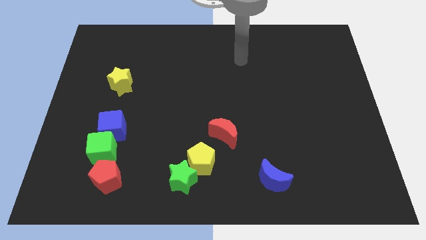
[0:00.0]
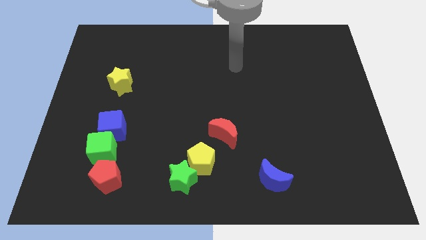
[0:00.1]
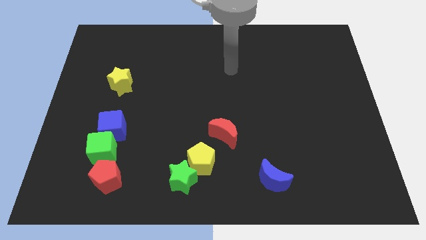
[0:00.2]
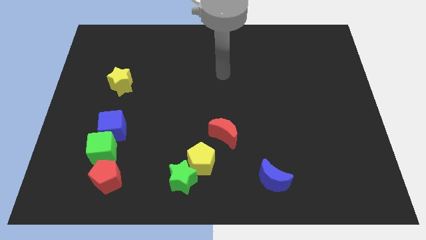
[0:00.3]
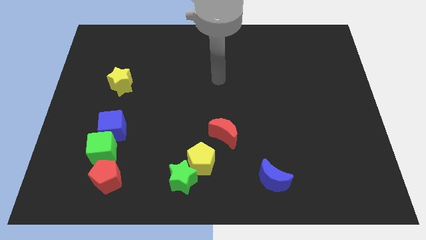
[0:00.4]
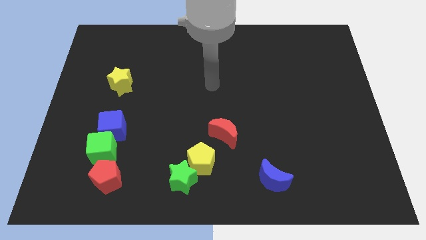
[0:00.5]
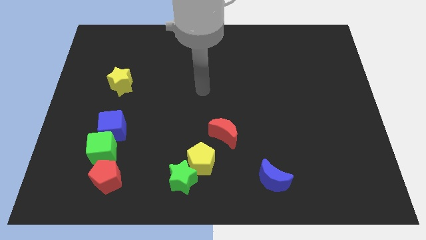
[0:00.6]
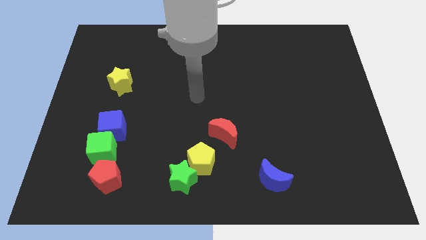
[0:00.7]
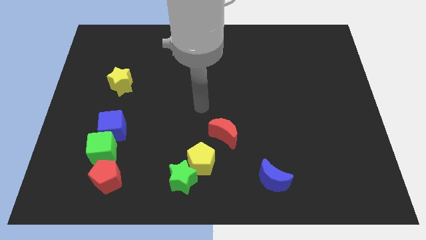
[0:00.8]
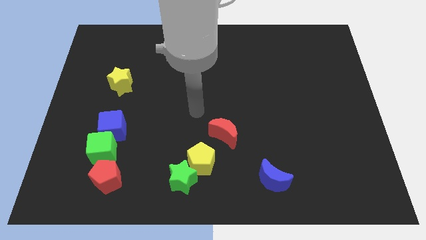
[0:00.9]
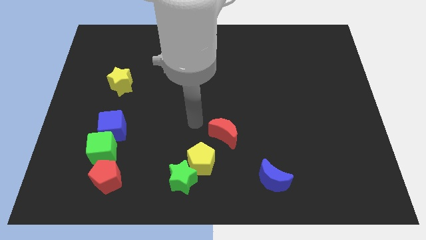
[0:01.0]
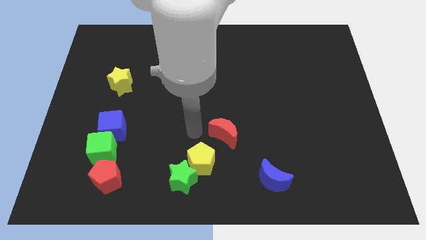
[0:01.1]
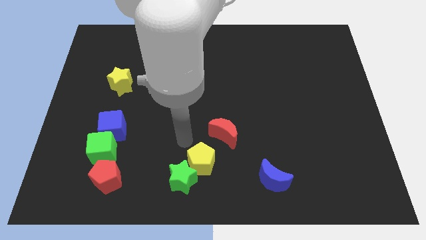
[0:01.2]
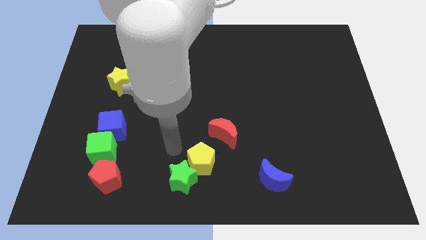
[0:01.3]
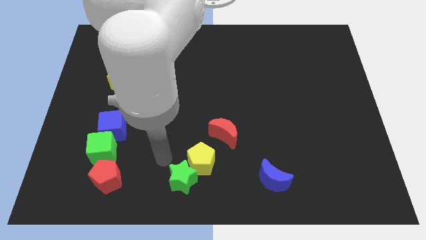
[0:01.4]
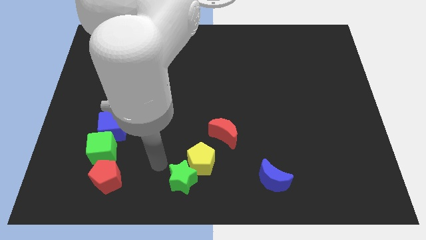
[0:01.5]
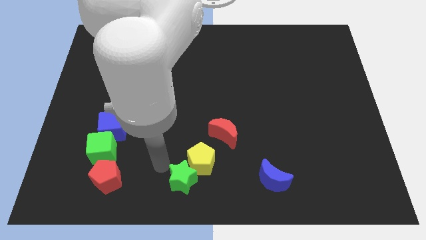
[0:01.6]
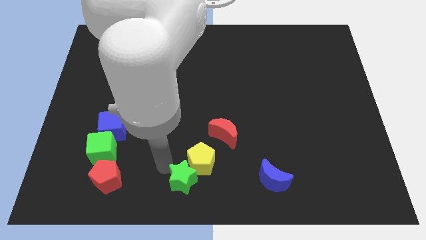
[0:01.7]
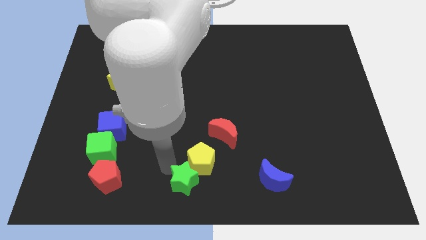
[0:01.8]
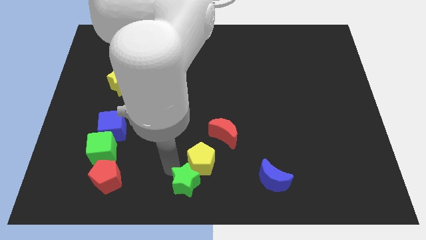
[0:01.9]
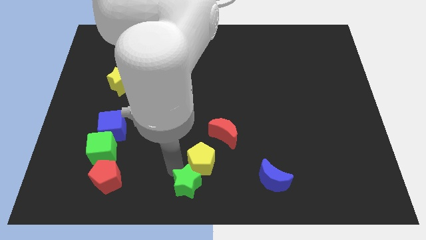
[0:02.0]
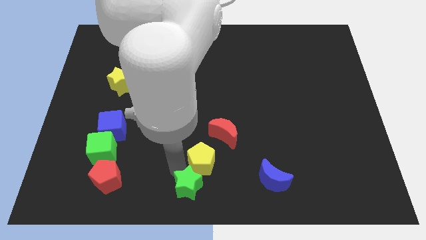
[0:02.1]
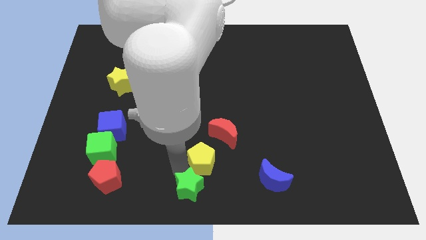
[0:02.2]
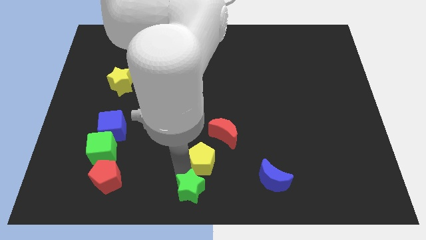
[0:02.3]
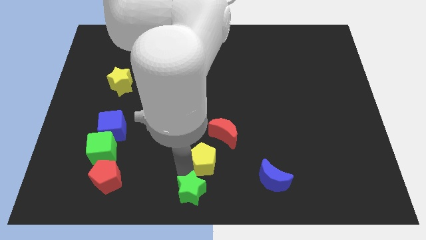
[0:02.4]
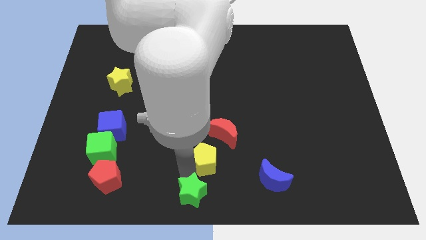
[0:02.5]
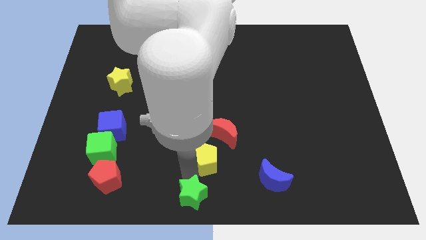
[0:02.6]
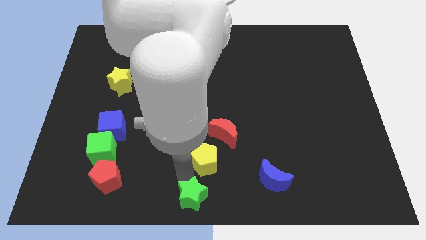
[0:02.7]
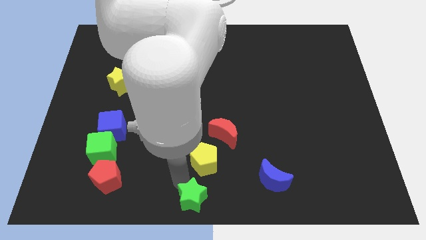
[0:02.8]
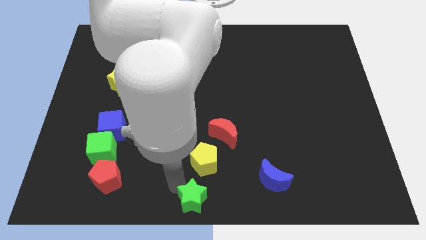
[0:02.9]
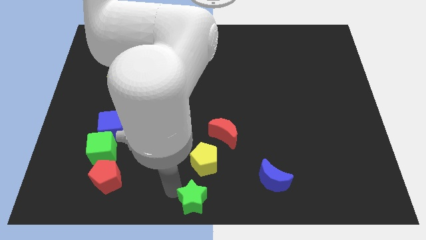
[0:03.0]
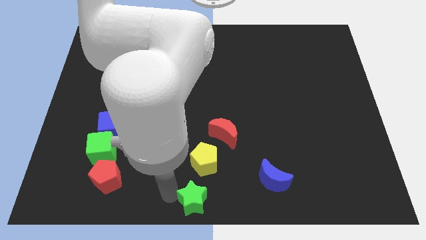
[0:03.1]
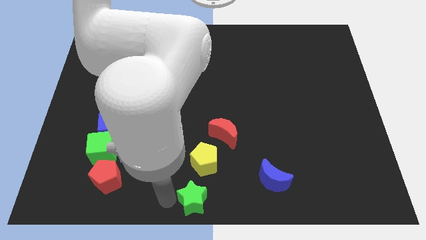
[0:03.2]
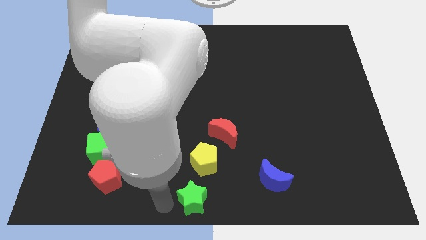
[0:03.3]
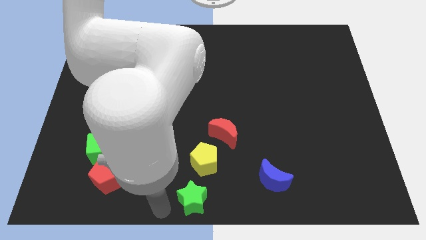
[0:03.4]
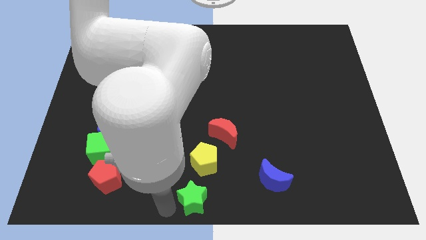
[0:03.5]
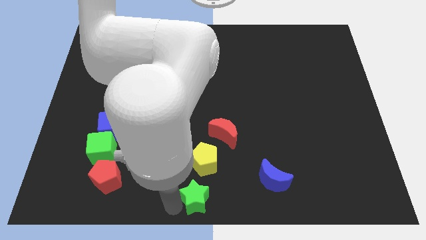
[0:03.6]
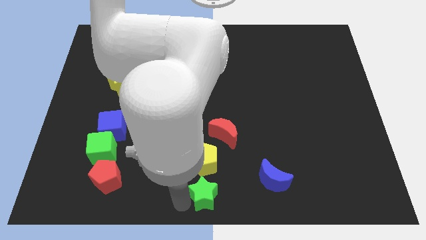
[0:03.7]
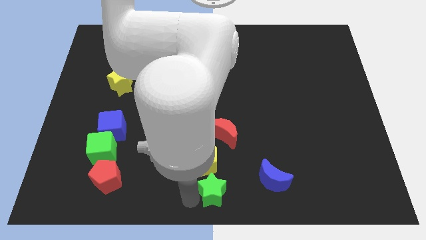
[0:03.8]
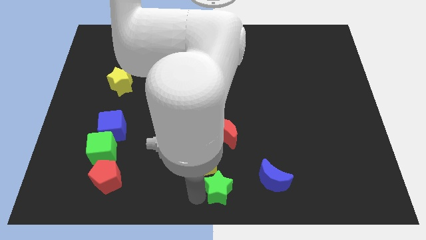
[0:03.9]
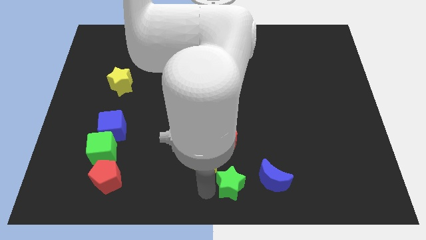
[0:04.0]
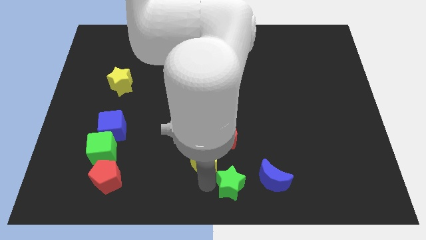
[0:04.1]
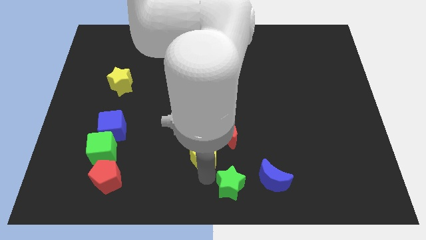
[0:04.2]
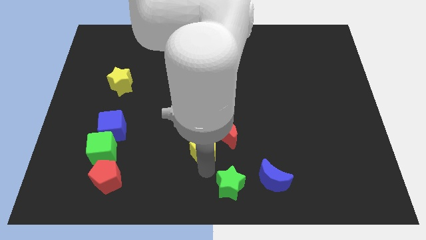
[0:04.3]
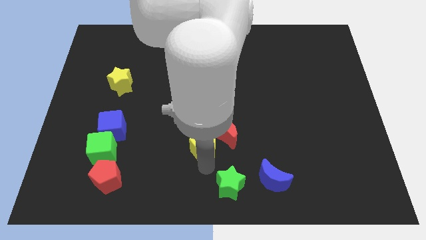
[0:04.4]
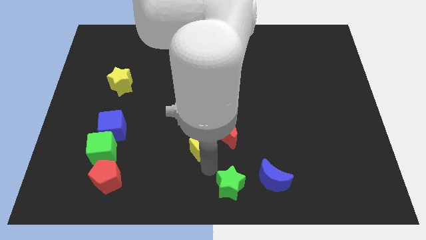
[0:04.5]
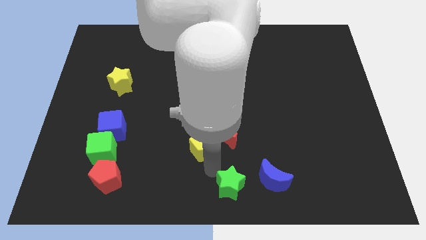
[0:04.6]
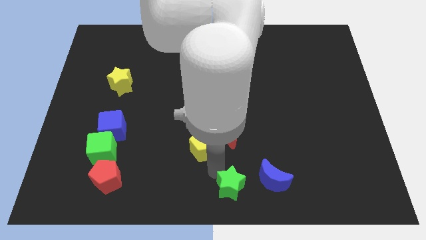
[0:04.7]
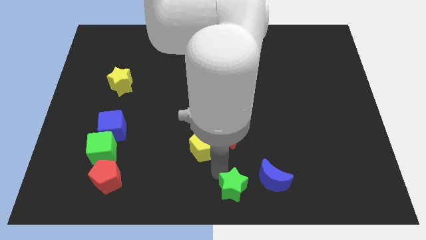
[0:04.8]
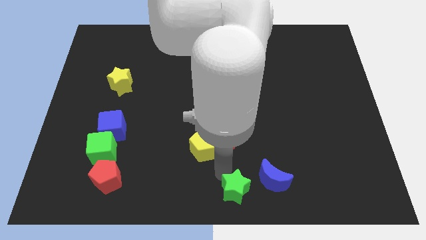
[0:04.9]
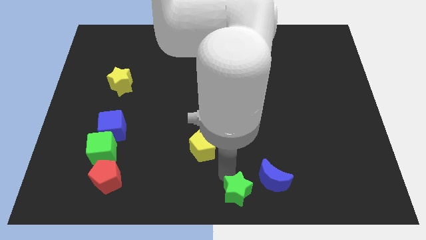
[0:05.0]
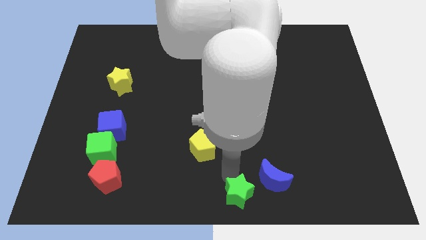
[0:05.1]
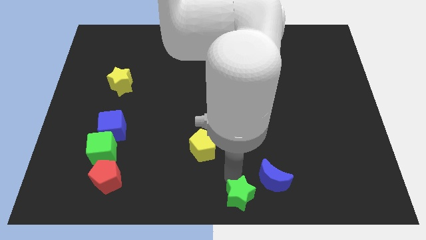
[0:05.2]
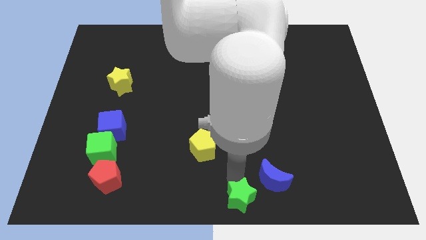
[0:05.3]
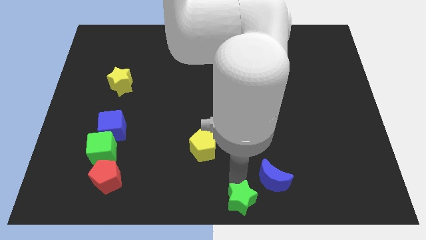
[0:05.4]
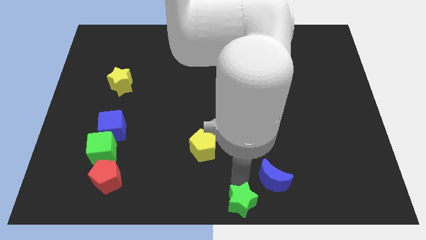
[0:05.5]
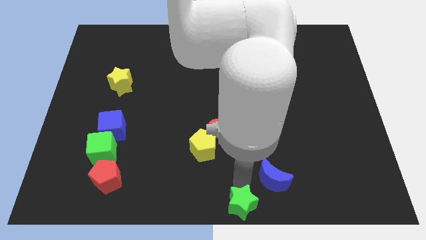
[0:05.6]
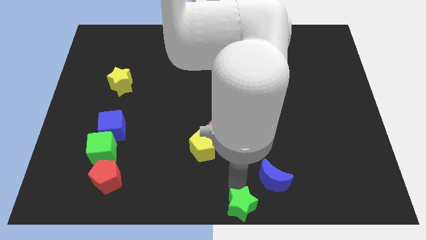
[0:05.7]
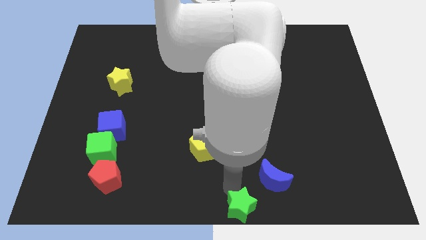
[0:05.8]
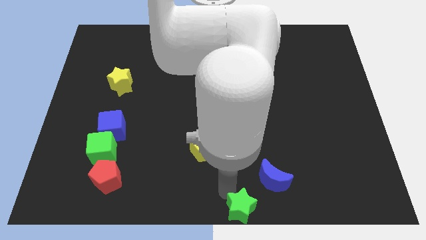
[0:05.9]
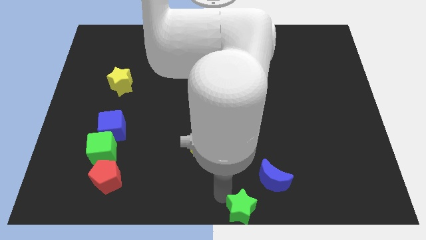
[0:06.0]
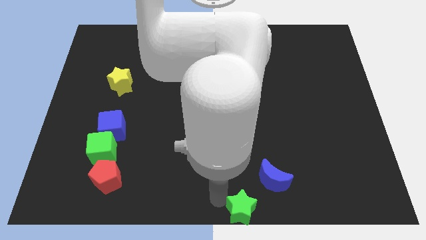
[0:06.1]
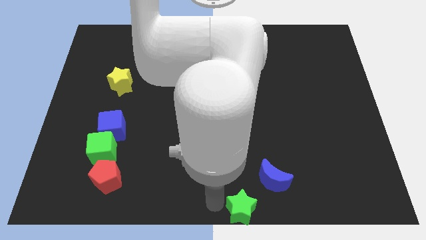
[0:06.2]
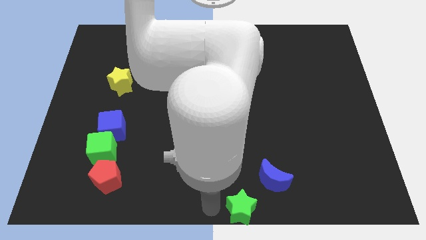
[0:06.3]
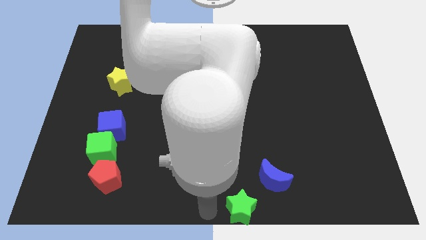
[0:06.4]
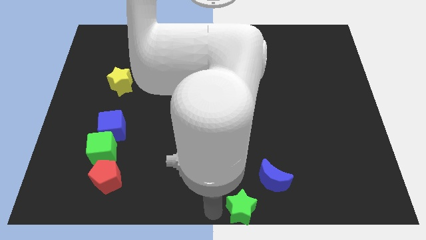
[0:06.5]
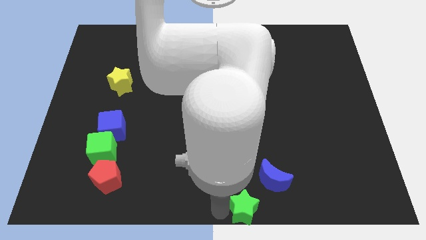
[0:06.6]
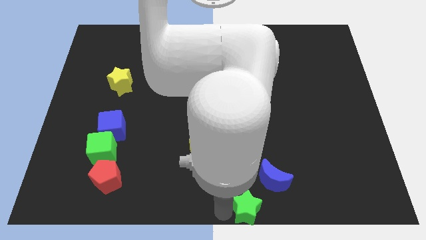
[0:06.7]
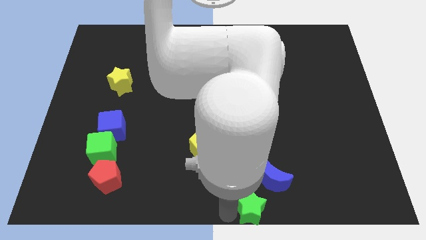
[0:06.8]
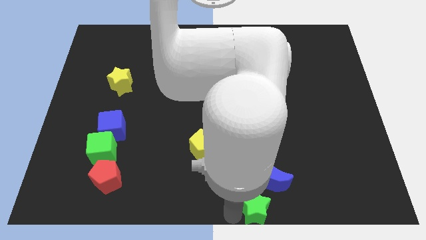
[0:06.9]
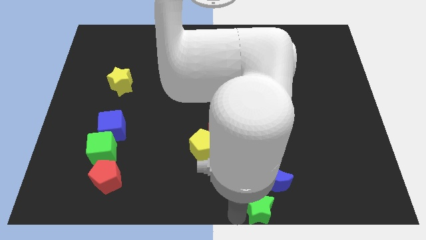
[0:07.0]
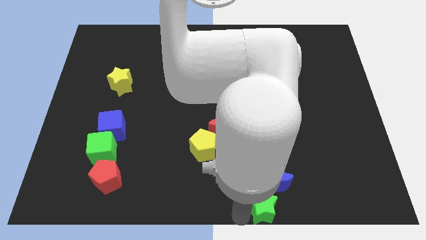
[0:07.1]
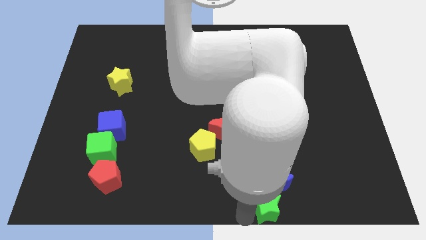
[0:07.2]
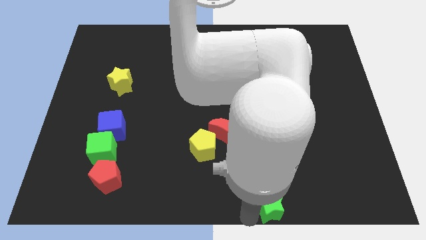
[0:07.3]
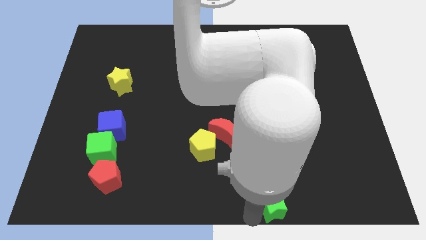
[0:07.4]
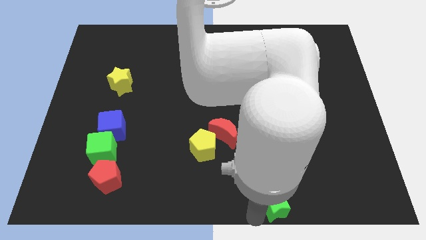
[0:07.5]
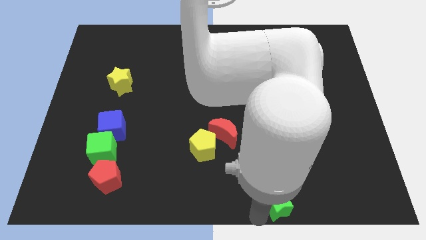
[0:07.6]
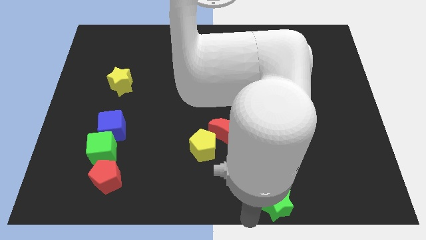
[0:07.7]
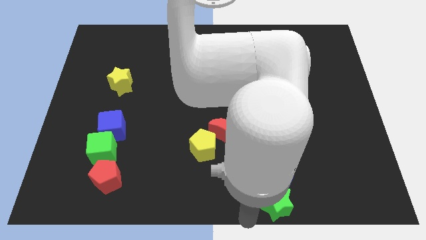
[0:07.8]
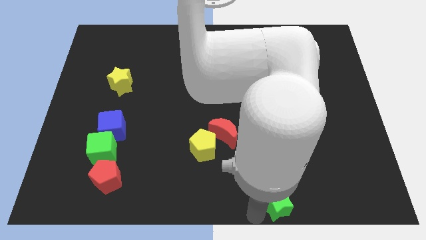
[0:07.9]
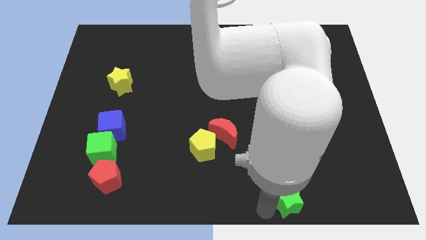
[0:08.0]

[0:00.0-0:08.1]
slide the green star right

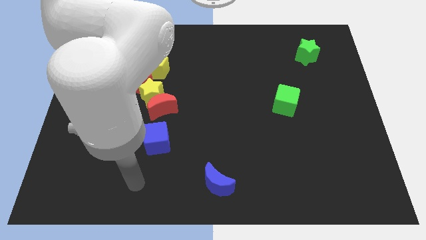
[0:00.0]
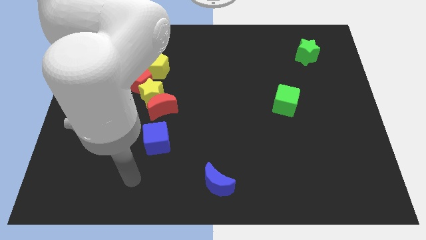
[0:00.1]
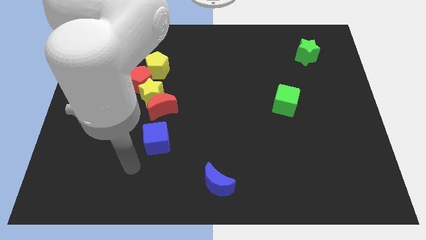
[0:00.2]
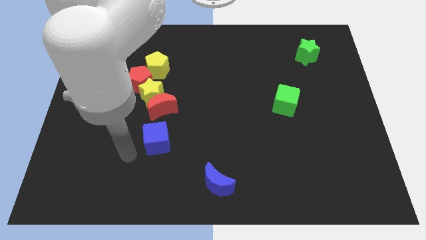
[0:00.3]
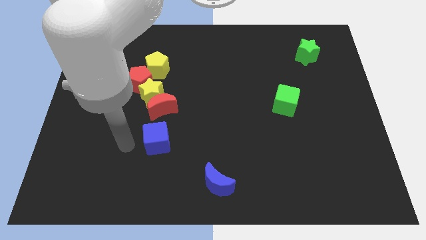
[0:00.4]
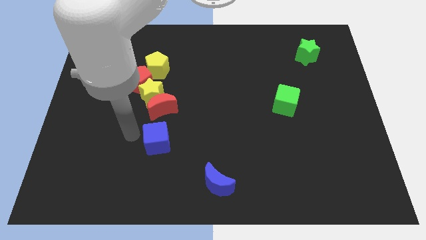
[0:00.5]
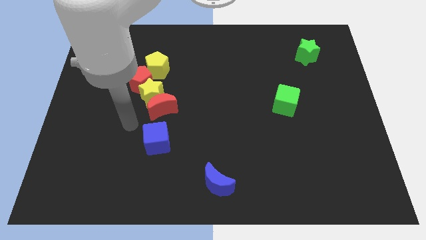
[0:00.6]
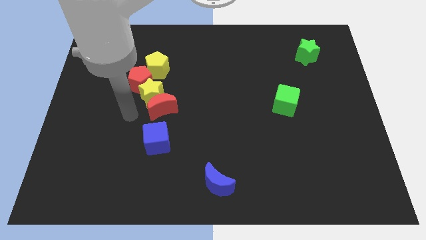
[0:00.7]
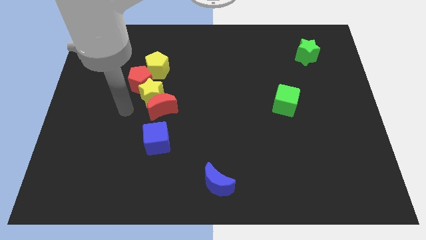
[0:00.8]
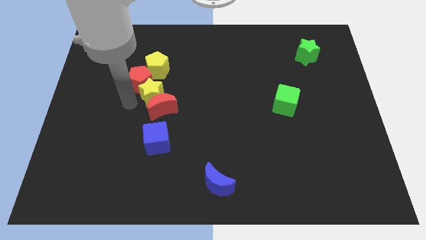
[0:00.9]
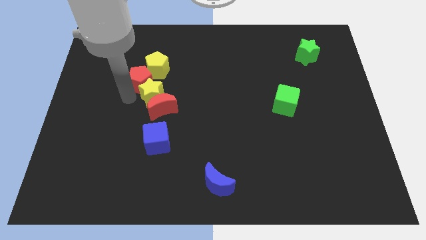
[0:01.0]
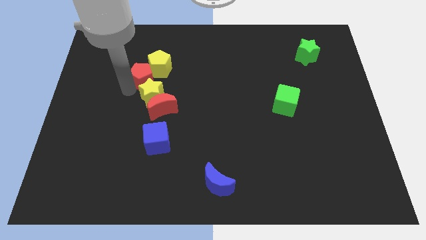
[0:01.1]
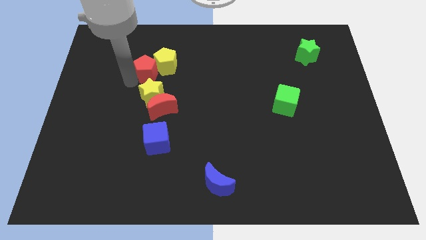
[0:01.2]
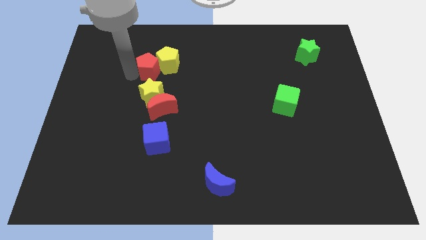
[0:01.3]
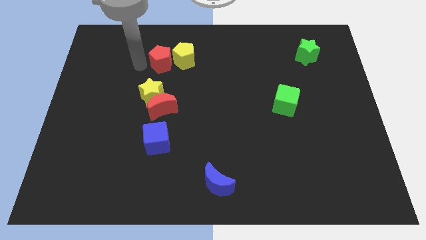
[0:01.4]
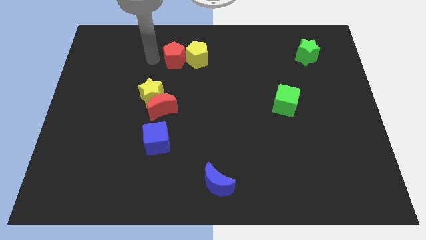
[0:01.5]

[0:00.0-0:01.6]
push the yellow pentagon right a little bit
